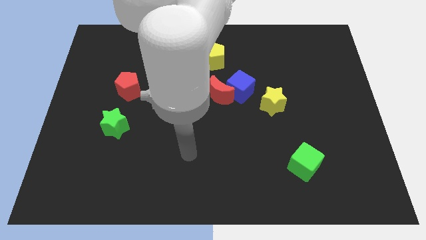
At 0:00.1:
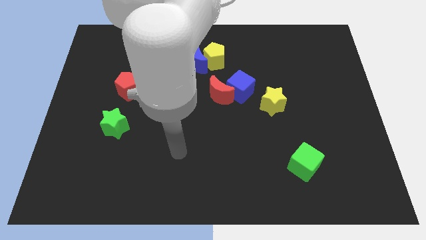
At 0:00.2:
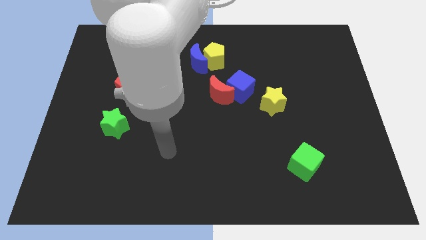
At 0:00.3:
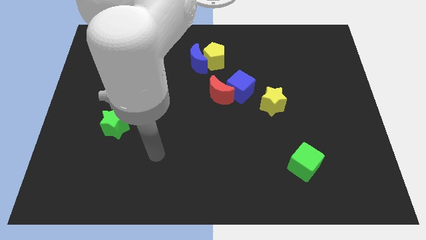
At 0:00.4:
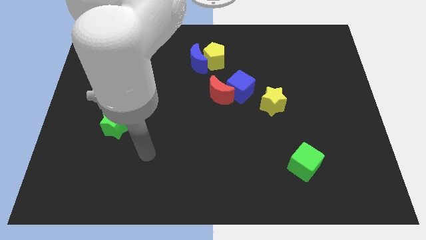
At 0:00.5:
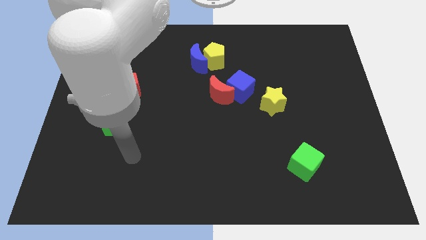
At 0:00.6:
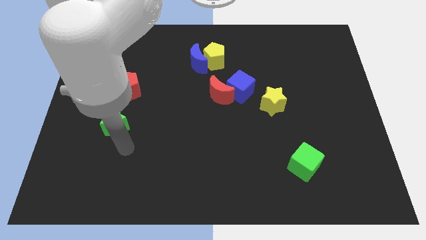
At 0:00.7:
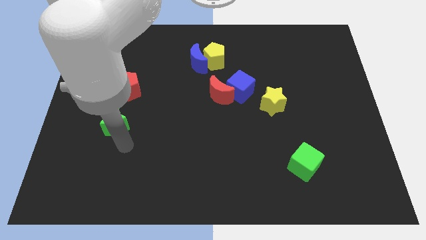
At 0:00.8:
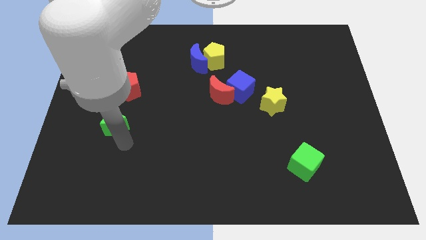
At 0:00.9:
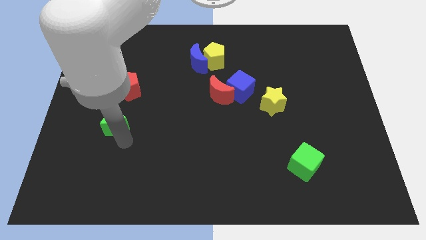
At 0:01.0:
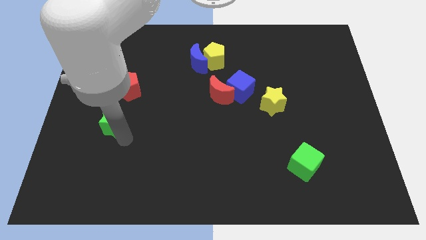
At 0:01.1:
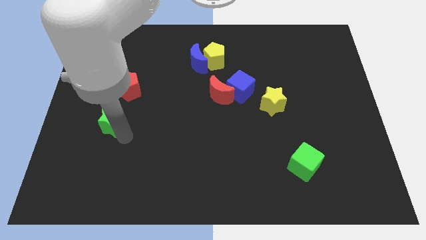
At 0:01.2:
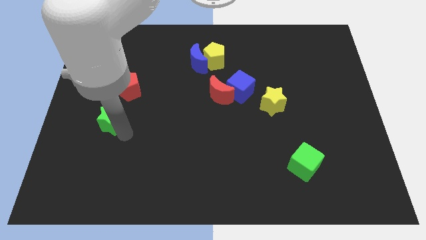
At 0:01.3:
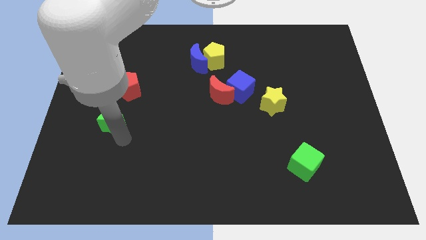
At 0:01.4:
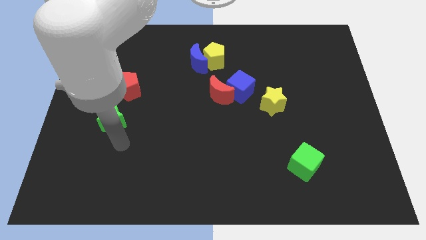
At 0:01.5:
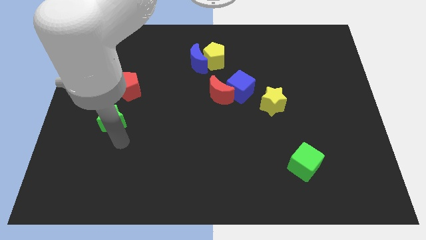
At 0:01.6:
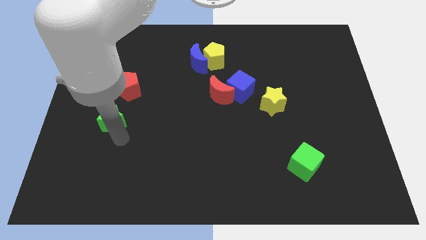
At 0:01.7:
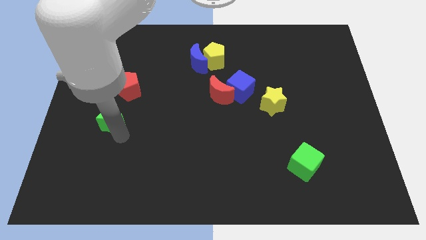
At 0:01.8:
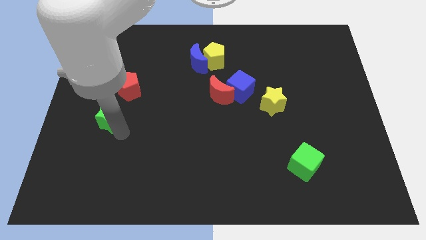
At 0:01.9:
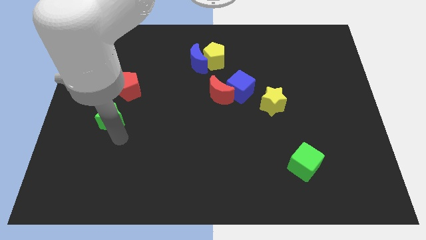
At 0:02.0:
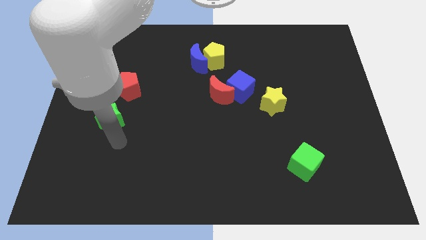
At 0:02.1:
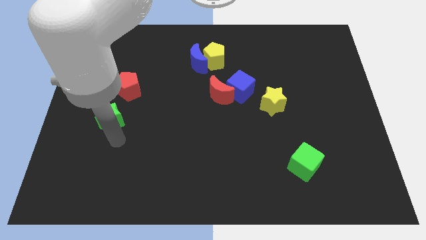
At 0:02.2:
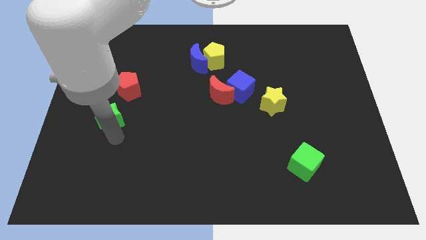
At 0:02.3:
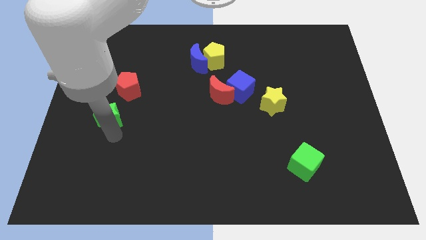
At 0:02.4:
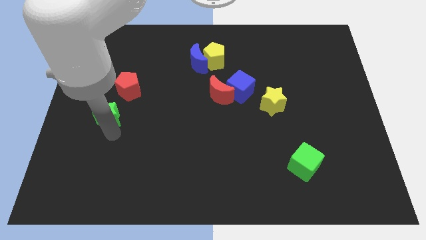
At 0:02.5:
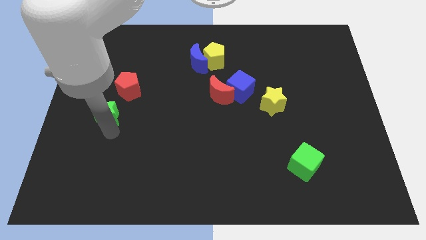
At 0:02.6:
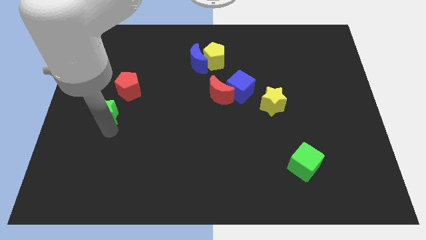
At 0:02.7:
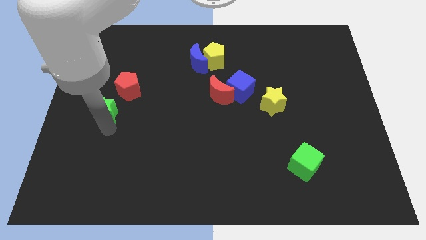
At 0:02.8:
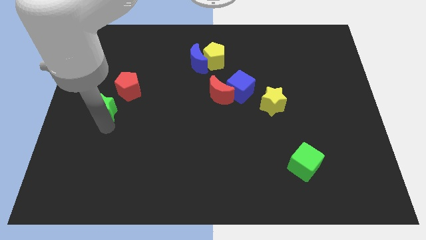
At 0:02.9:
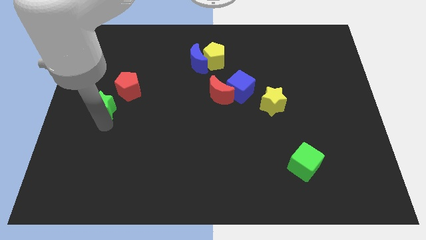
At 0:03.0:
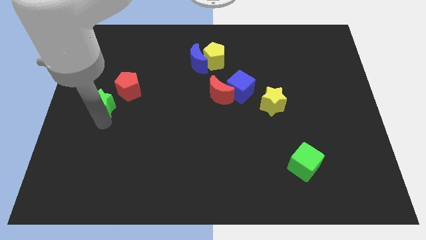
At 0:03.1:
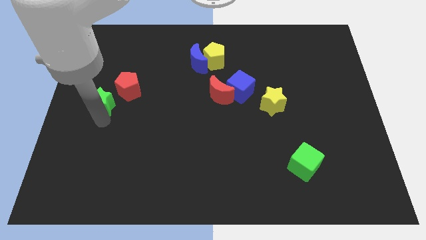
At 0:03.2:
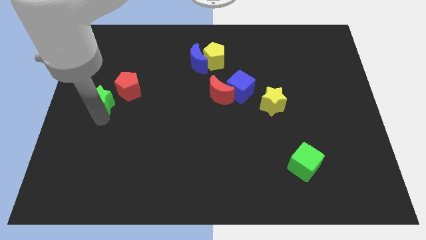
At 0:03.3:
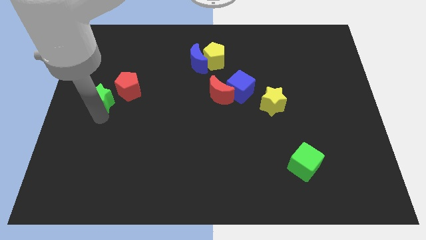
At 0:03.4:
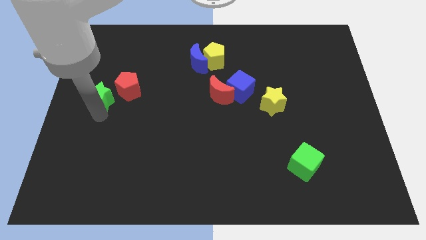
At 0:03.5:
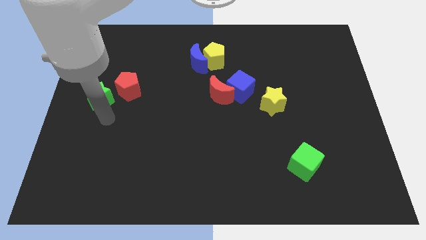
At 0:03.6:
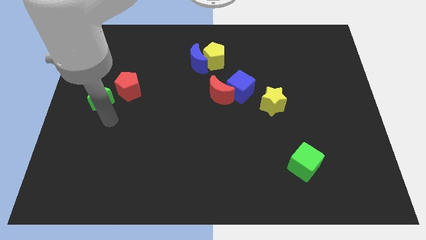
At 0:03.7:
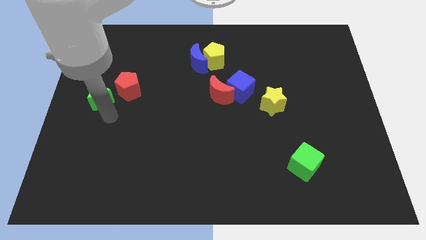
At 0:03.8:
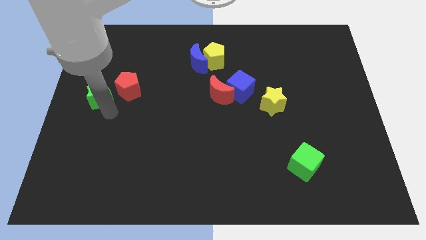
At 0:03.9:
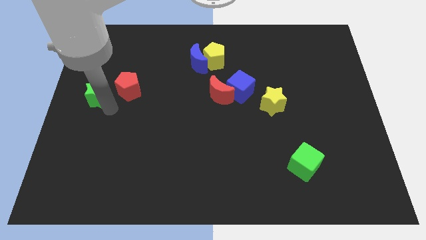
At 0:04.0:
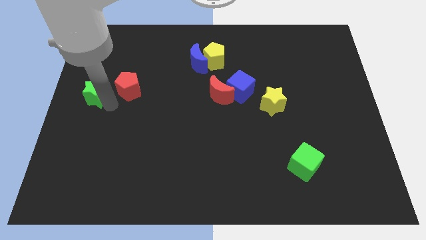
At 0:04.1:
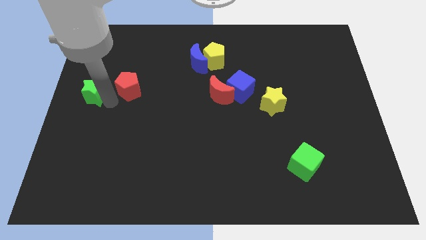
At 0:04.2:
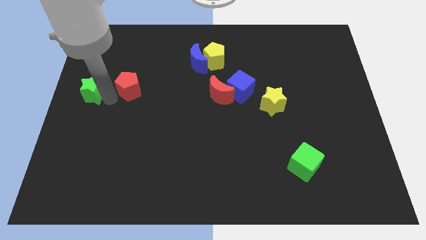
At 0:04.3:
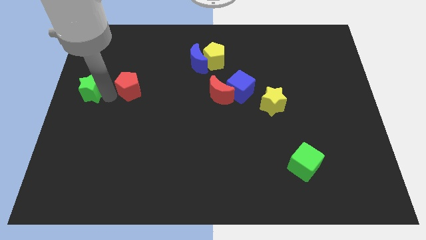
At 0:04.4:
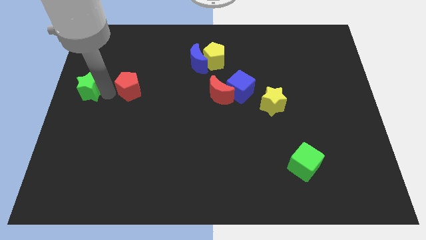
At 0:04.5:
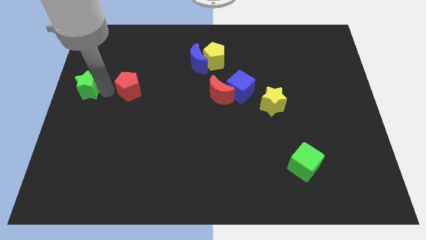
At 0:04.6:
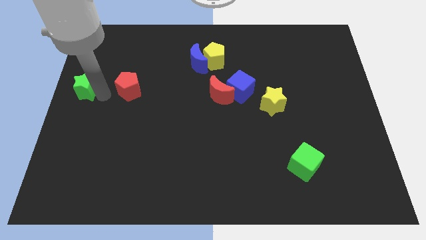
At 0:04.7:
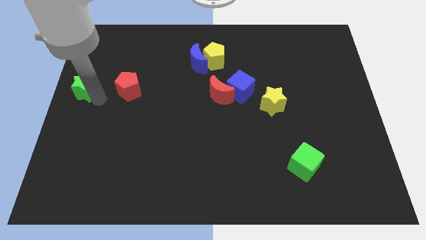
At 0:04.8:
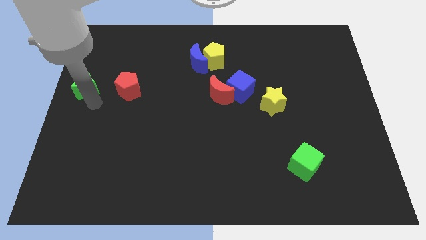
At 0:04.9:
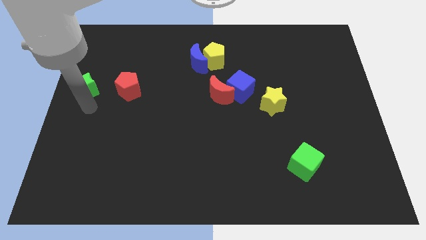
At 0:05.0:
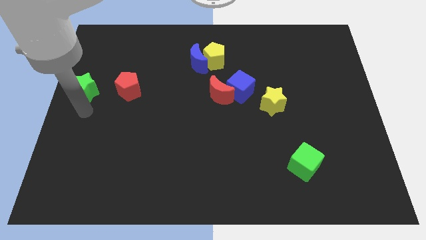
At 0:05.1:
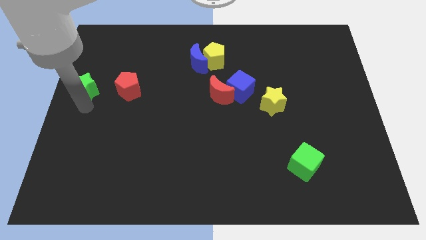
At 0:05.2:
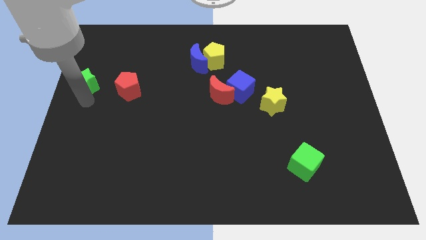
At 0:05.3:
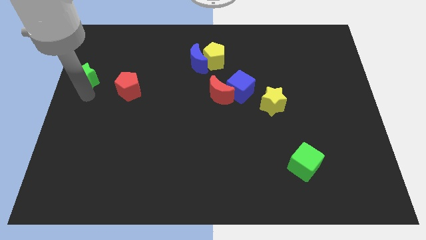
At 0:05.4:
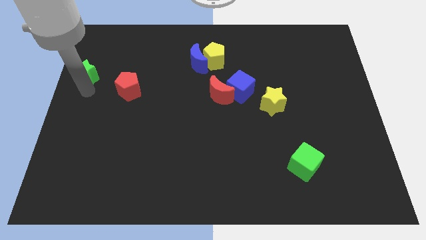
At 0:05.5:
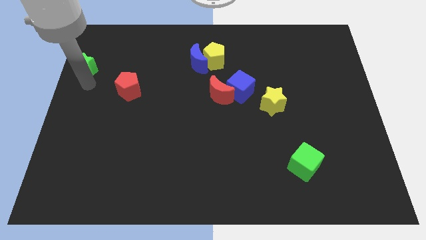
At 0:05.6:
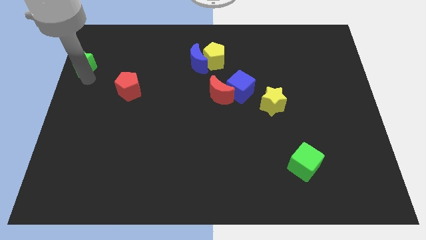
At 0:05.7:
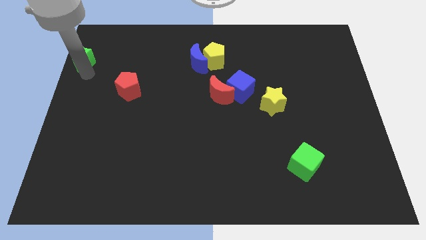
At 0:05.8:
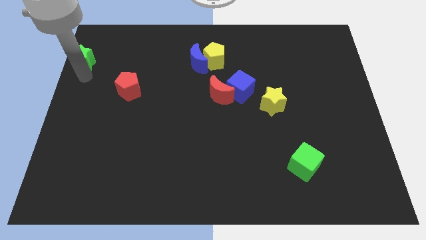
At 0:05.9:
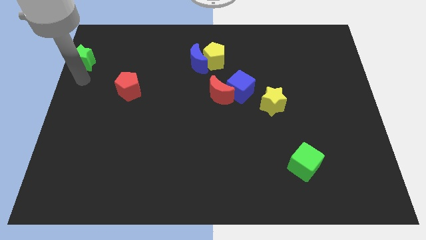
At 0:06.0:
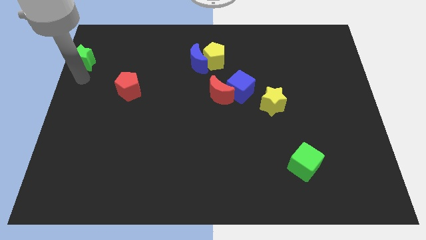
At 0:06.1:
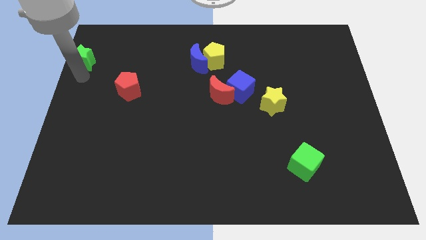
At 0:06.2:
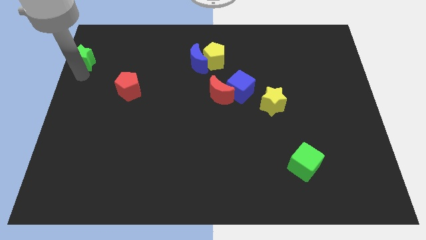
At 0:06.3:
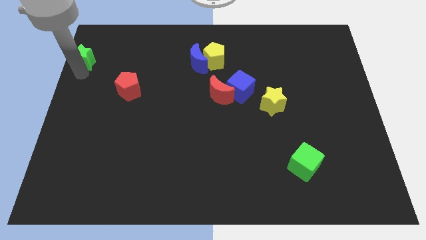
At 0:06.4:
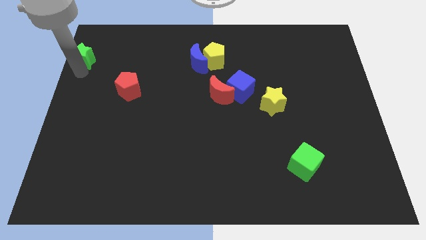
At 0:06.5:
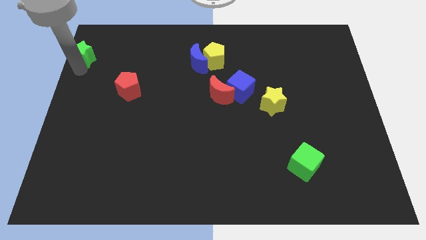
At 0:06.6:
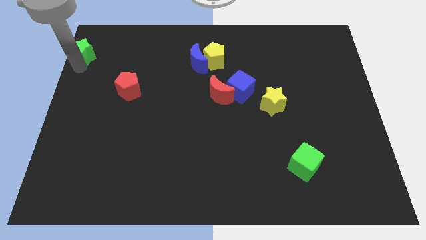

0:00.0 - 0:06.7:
push the green star to the top left corner
